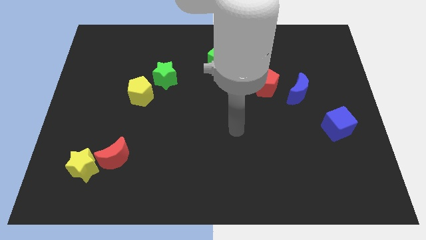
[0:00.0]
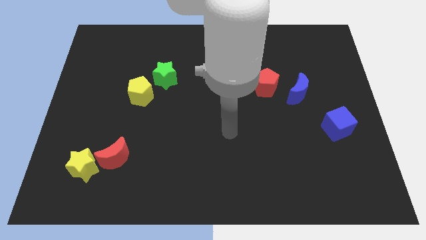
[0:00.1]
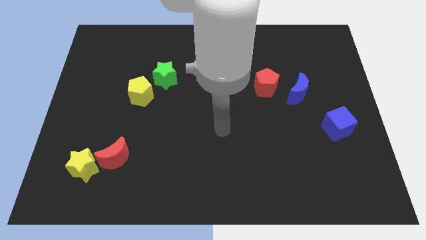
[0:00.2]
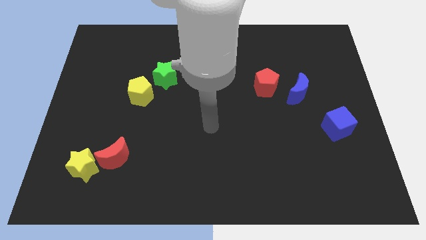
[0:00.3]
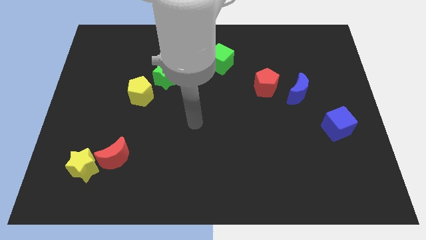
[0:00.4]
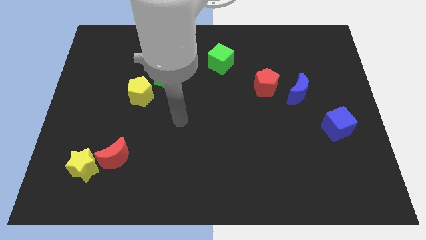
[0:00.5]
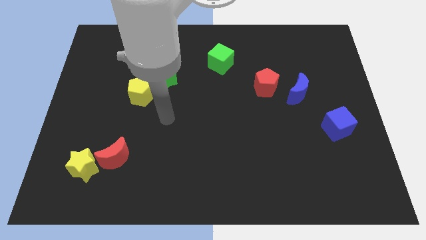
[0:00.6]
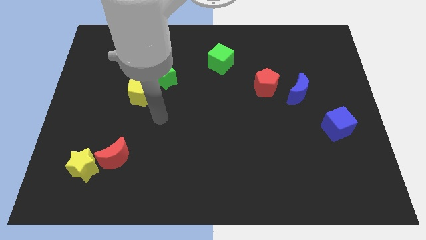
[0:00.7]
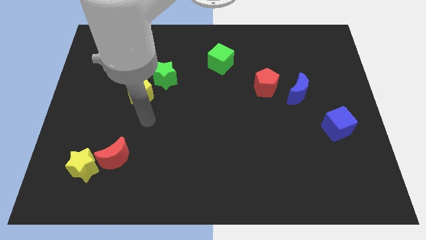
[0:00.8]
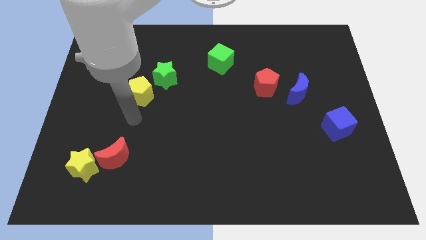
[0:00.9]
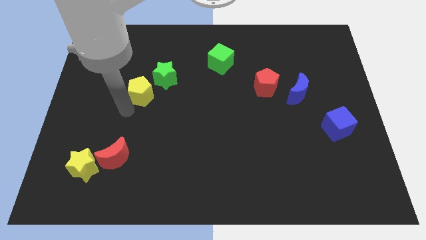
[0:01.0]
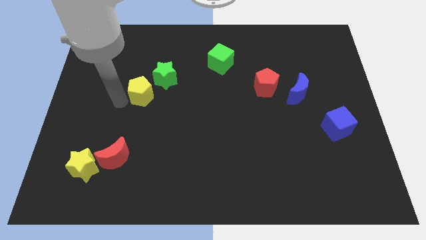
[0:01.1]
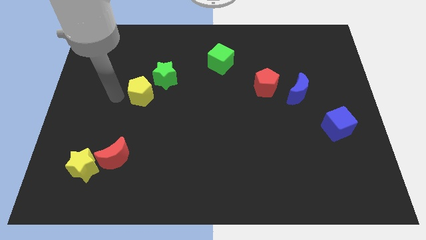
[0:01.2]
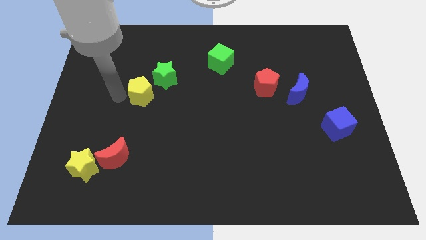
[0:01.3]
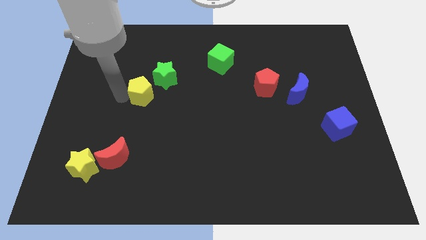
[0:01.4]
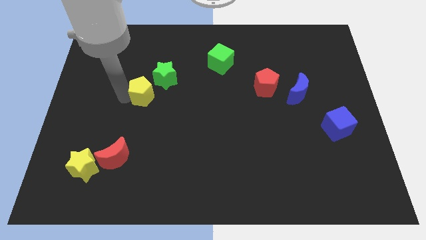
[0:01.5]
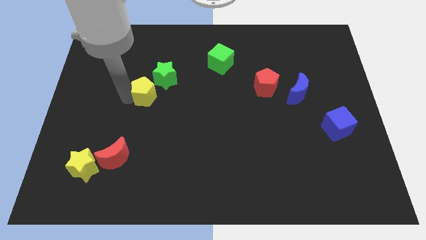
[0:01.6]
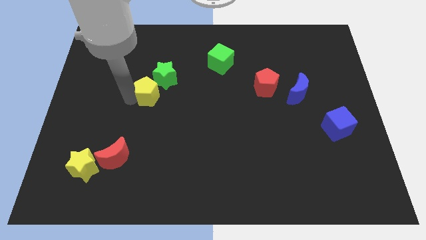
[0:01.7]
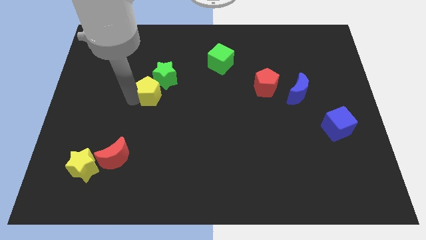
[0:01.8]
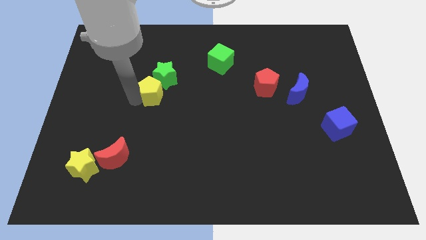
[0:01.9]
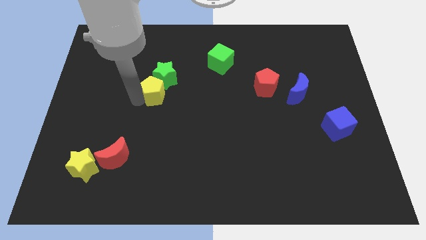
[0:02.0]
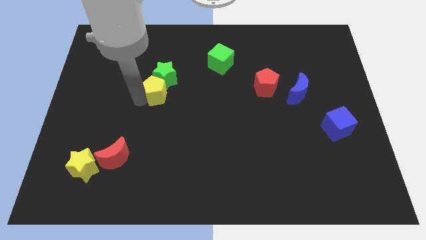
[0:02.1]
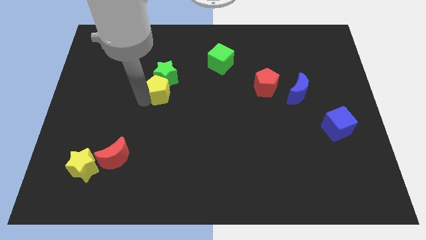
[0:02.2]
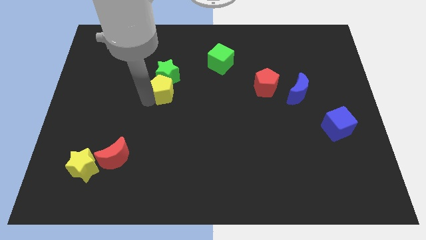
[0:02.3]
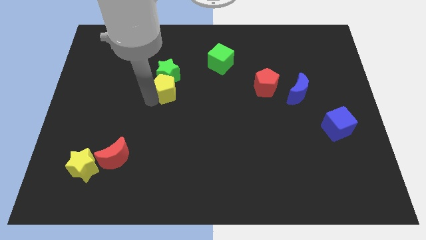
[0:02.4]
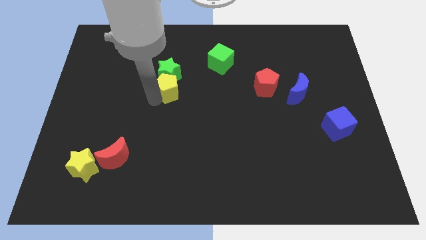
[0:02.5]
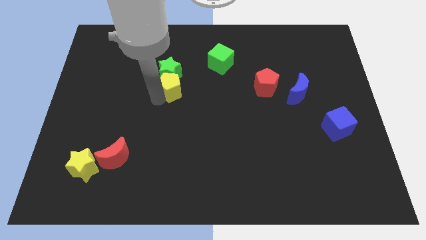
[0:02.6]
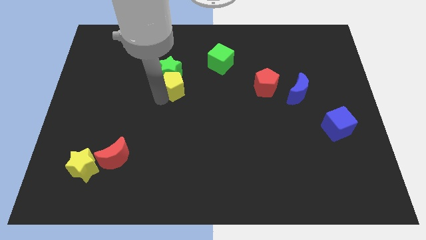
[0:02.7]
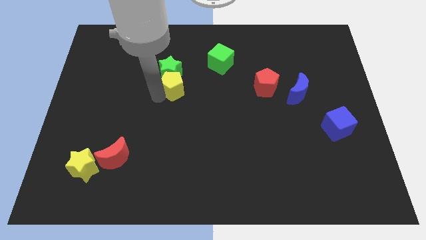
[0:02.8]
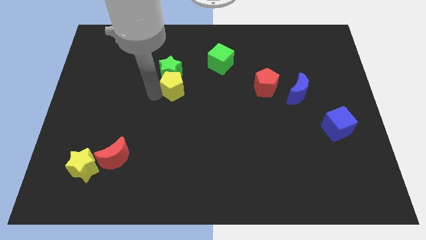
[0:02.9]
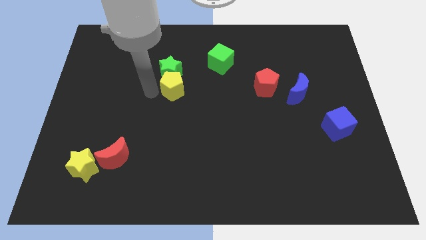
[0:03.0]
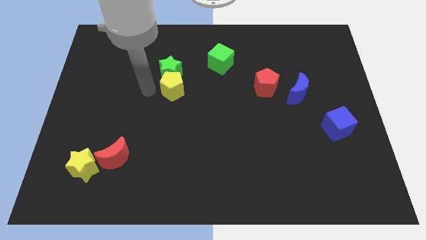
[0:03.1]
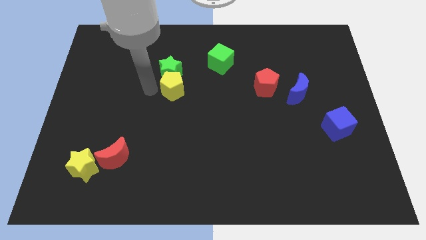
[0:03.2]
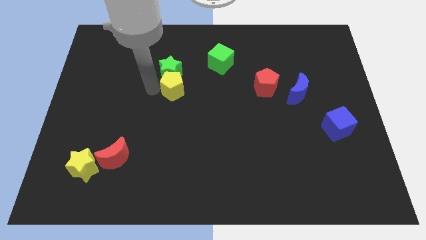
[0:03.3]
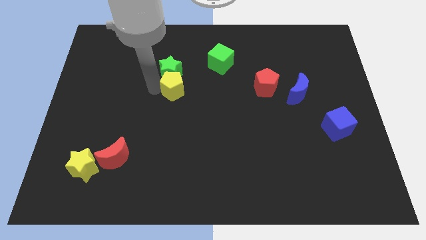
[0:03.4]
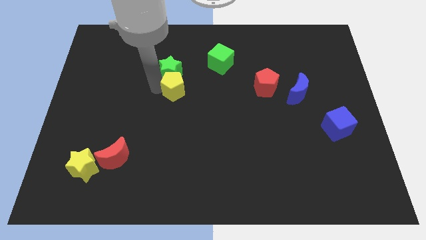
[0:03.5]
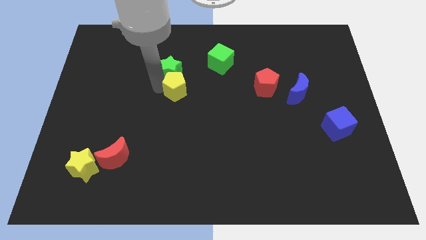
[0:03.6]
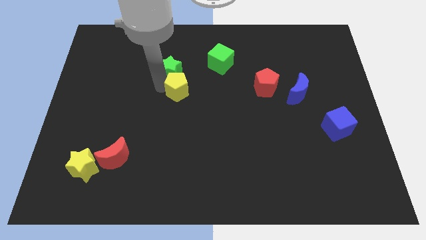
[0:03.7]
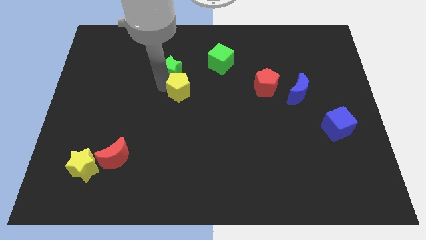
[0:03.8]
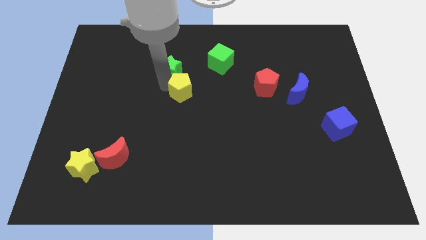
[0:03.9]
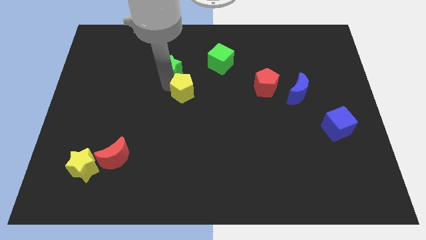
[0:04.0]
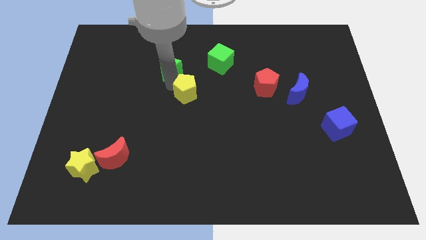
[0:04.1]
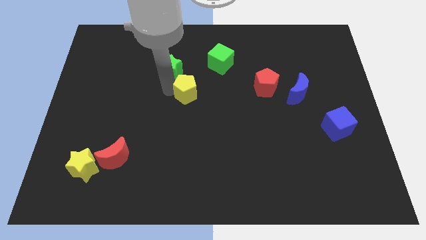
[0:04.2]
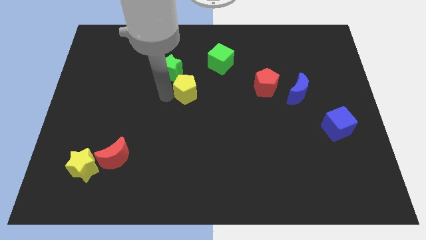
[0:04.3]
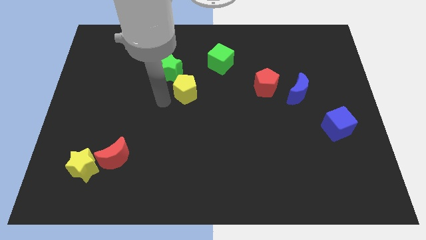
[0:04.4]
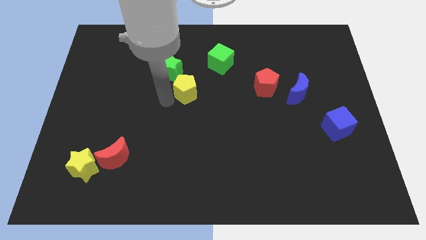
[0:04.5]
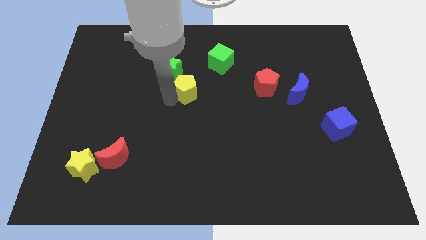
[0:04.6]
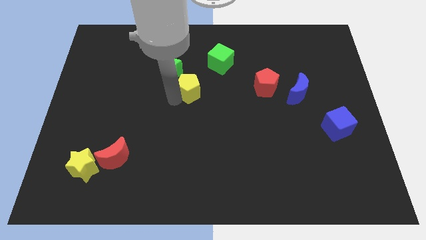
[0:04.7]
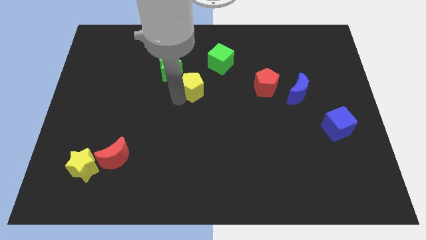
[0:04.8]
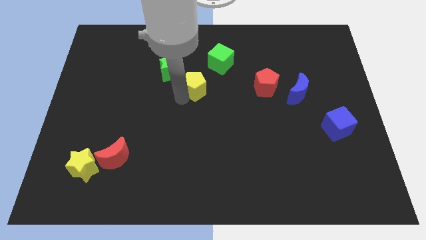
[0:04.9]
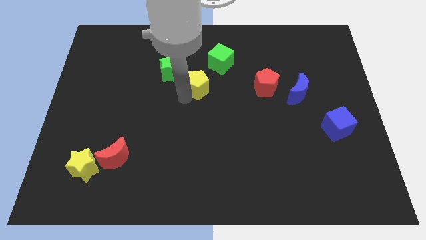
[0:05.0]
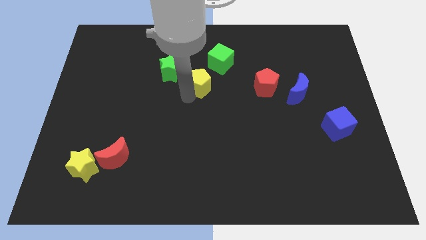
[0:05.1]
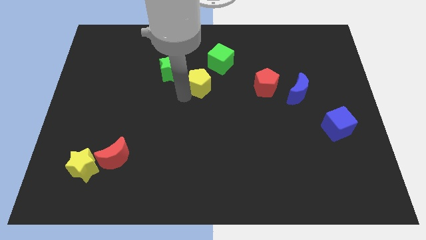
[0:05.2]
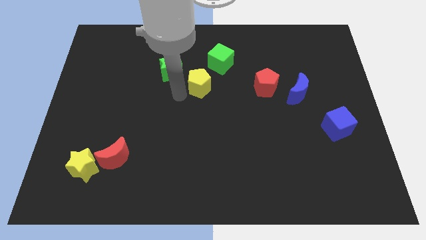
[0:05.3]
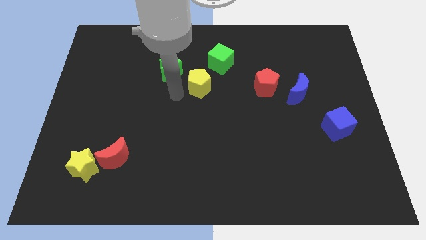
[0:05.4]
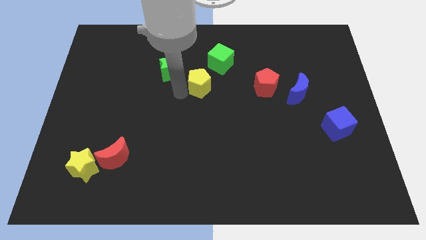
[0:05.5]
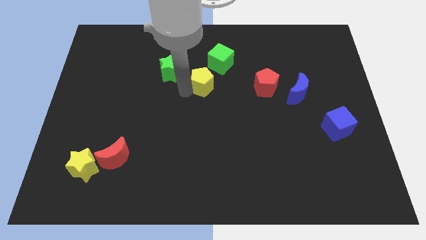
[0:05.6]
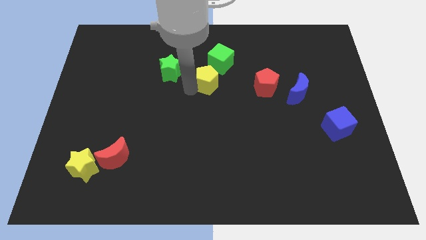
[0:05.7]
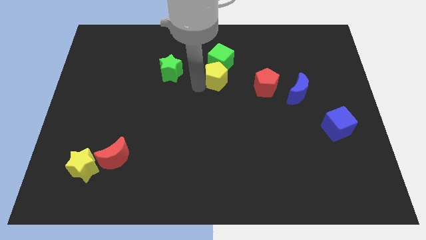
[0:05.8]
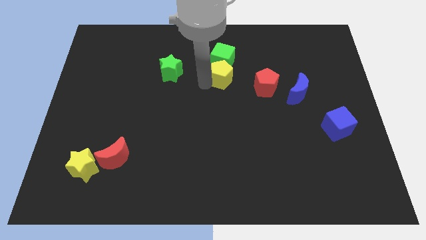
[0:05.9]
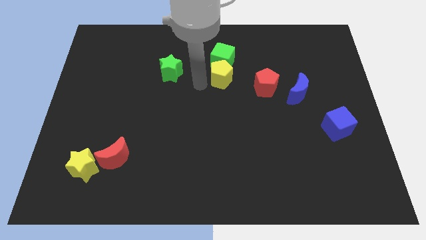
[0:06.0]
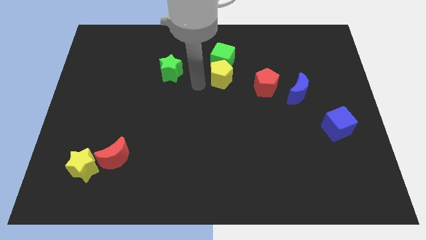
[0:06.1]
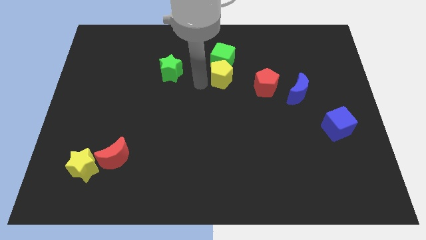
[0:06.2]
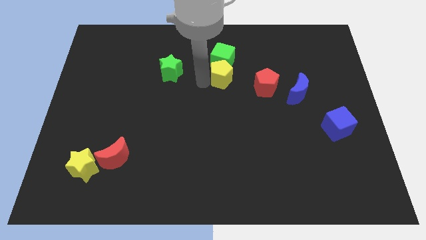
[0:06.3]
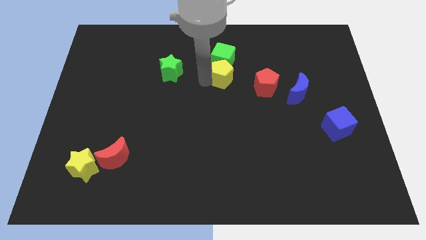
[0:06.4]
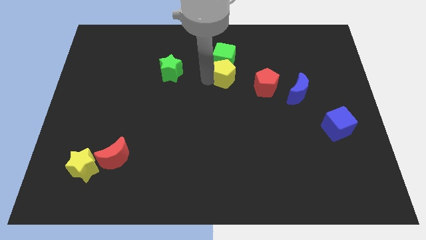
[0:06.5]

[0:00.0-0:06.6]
put the yellow pentagon to the top left side of the red pentagon

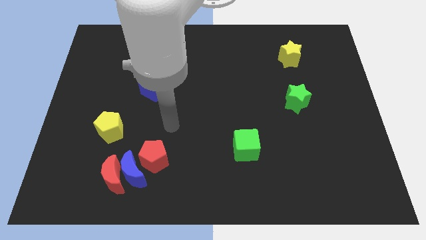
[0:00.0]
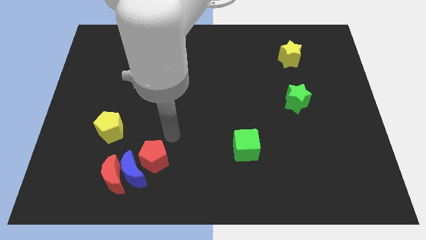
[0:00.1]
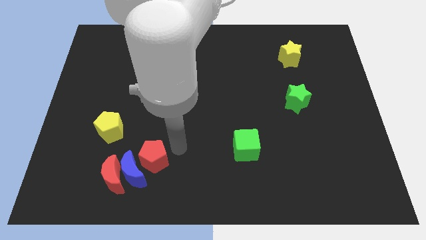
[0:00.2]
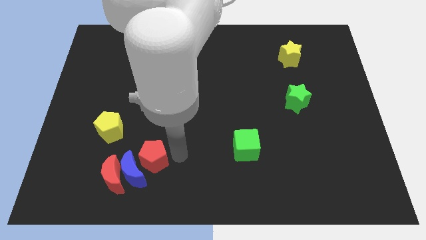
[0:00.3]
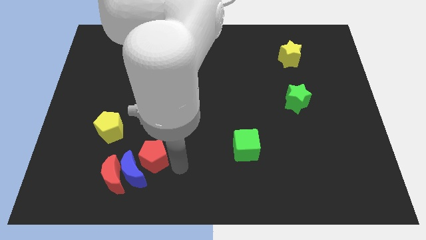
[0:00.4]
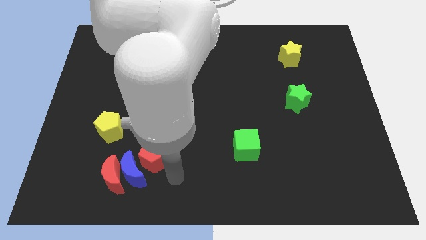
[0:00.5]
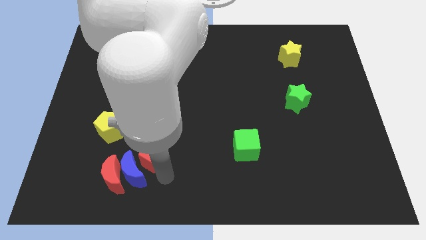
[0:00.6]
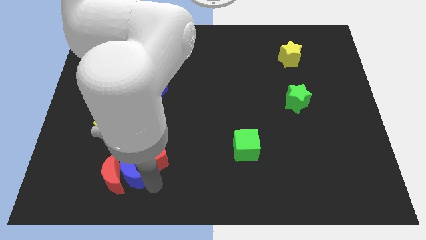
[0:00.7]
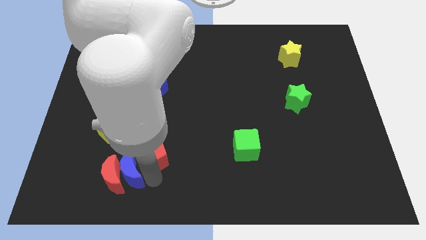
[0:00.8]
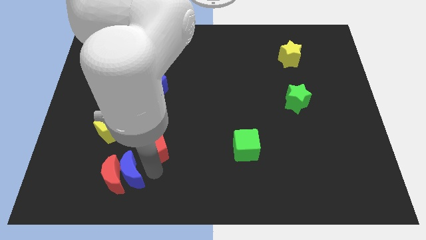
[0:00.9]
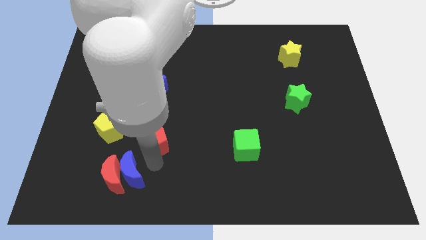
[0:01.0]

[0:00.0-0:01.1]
put the red pentagon to the right side of the yellow pentagon
